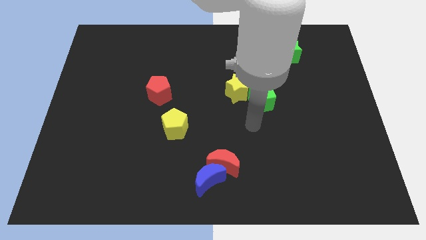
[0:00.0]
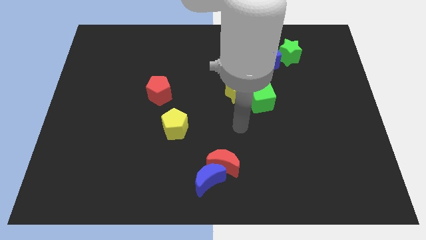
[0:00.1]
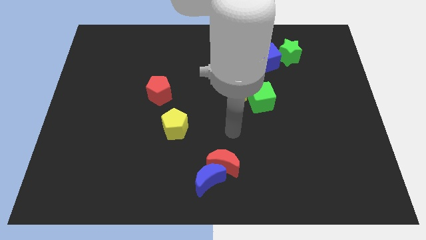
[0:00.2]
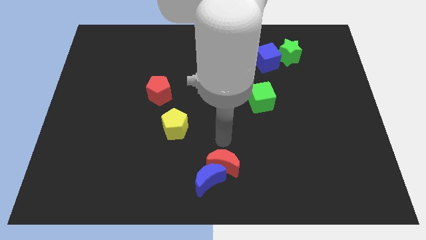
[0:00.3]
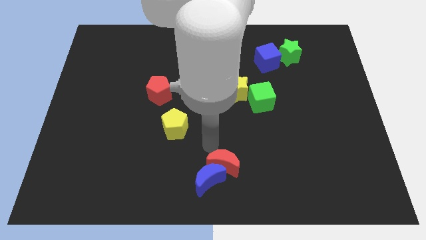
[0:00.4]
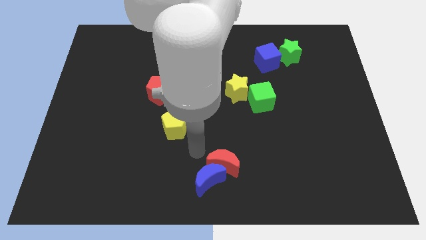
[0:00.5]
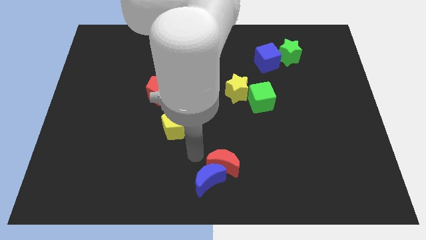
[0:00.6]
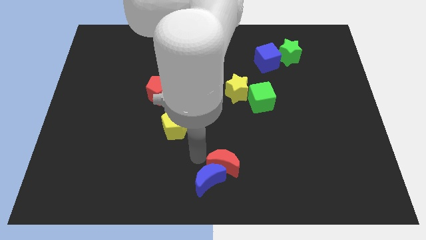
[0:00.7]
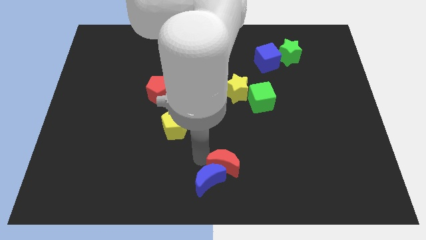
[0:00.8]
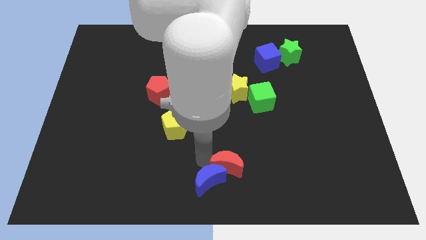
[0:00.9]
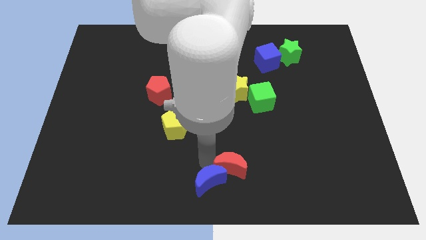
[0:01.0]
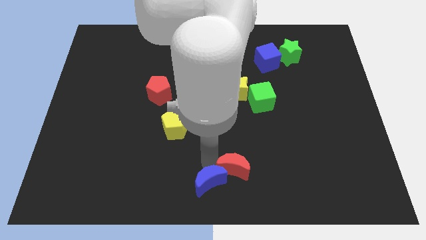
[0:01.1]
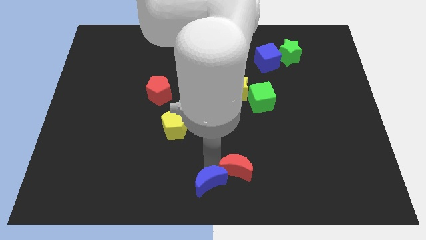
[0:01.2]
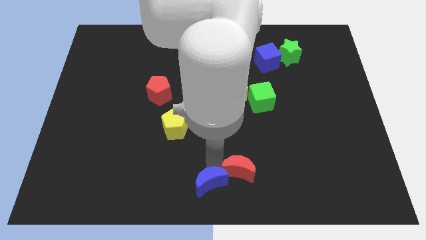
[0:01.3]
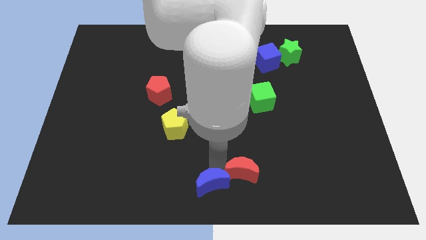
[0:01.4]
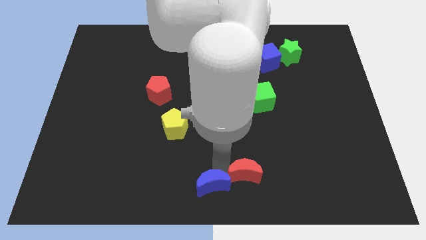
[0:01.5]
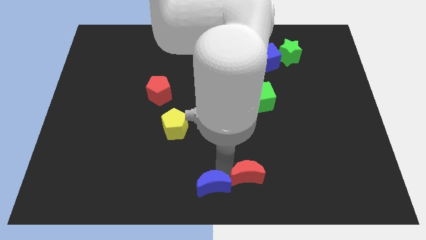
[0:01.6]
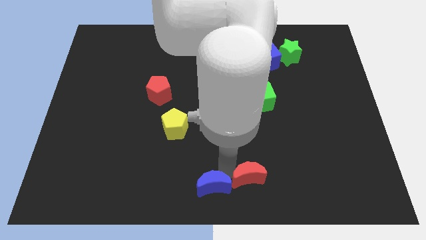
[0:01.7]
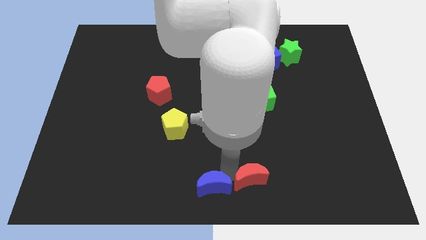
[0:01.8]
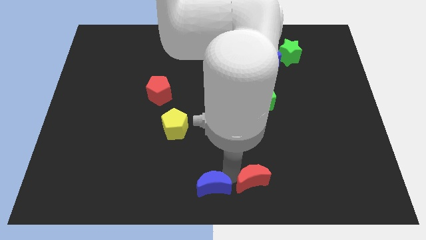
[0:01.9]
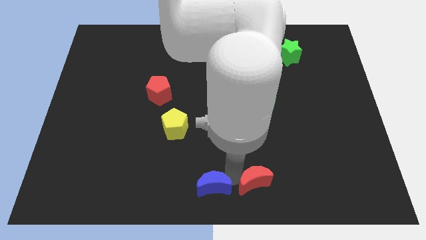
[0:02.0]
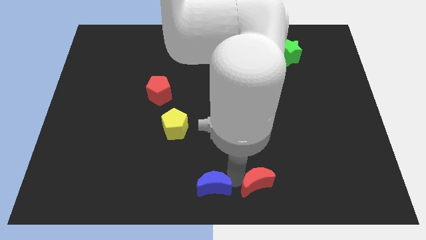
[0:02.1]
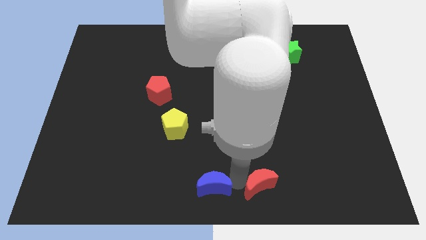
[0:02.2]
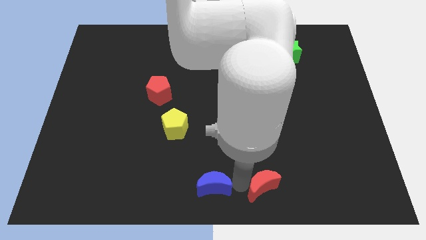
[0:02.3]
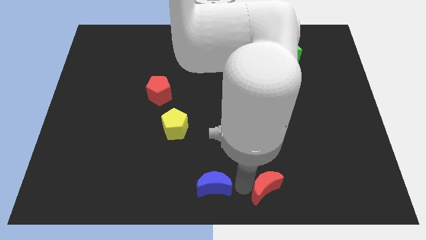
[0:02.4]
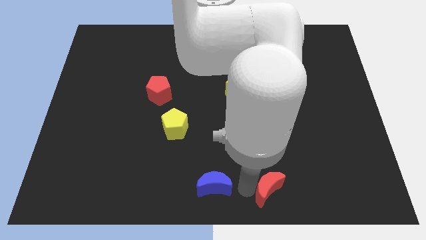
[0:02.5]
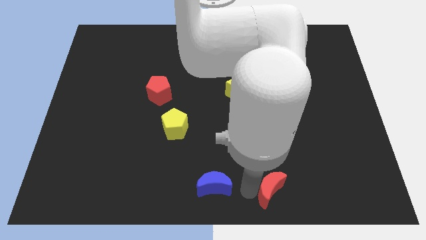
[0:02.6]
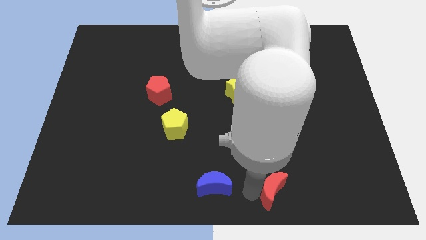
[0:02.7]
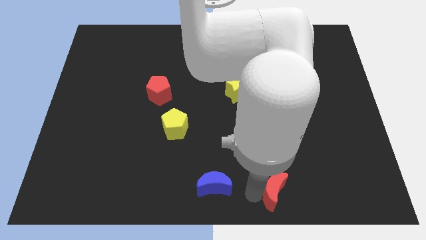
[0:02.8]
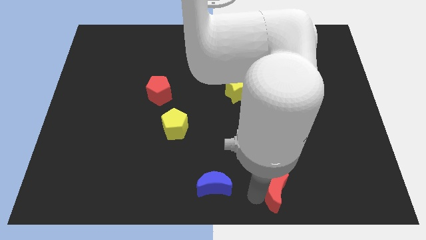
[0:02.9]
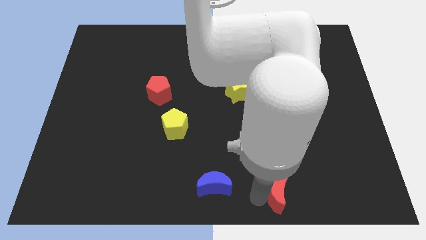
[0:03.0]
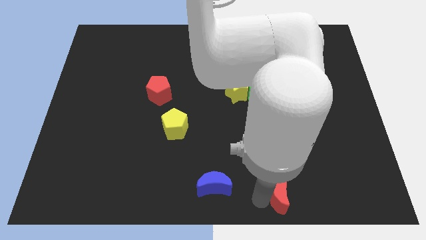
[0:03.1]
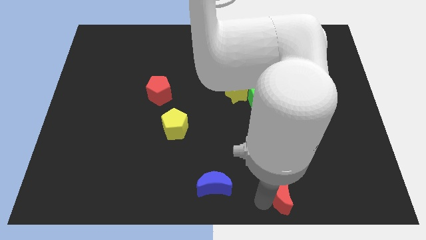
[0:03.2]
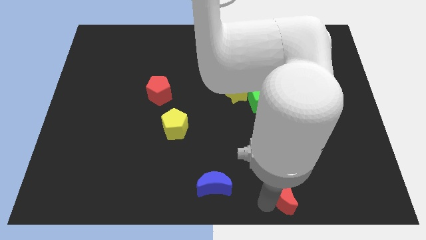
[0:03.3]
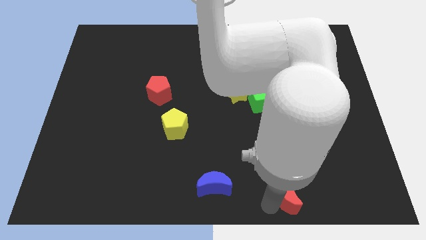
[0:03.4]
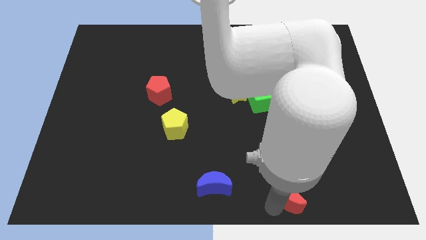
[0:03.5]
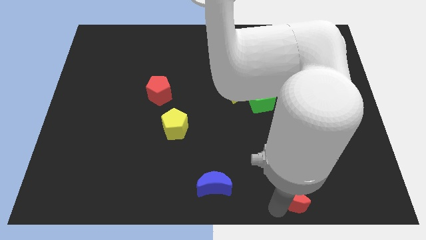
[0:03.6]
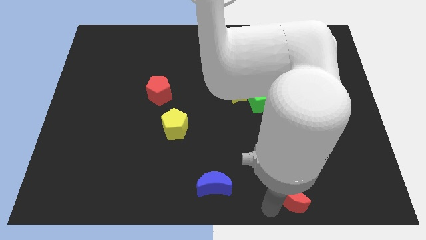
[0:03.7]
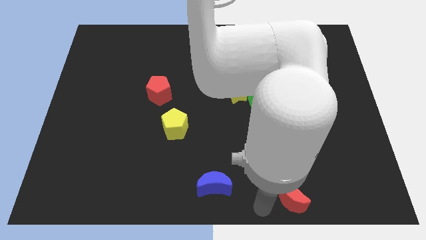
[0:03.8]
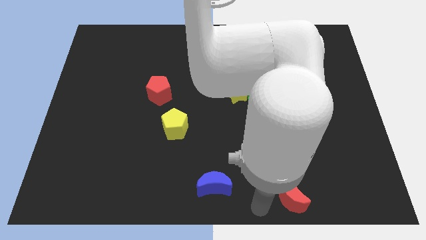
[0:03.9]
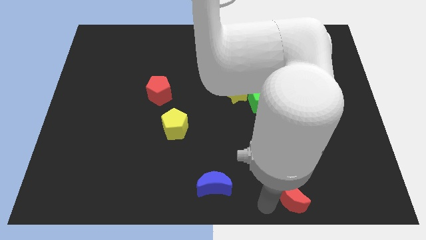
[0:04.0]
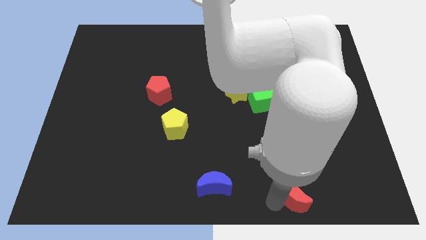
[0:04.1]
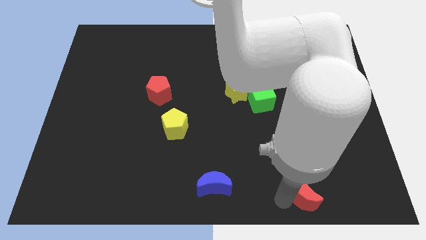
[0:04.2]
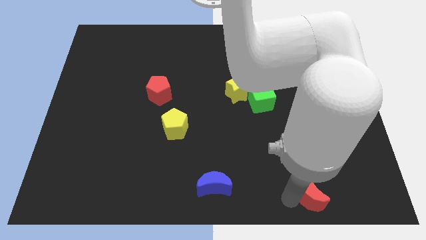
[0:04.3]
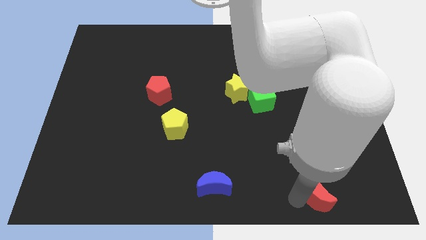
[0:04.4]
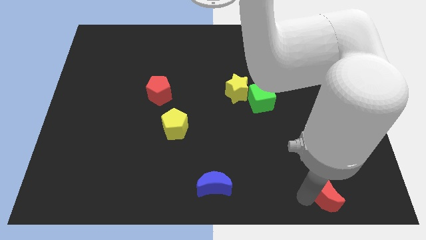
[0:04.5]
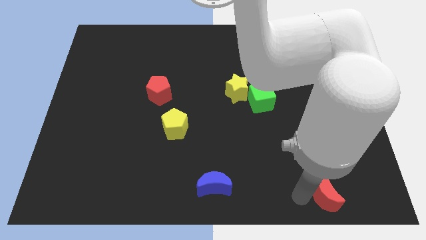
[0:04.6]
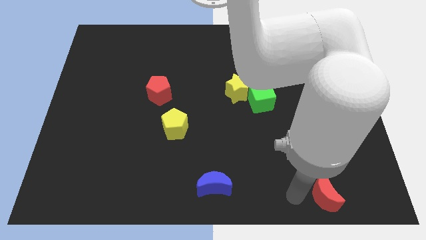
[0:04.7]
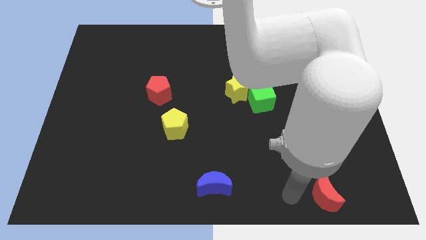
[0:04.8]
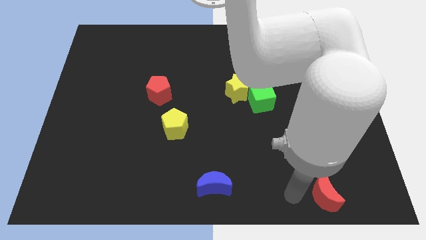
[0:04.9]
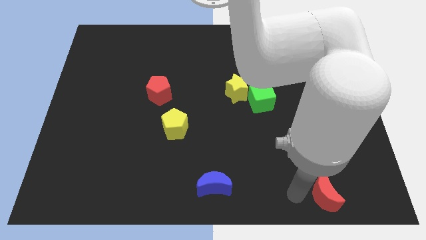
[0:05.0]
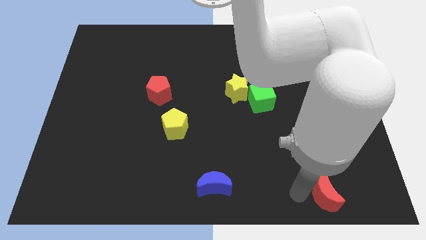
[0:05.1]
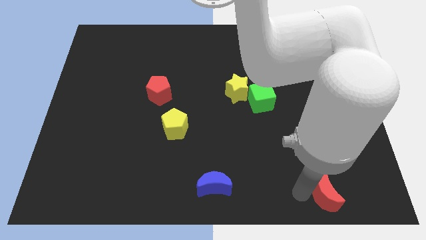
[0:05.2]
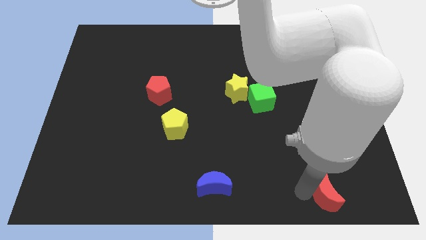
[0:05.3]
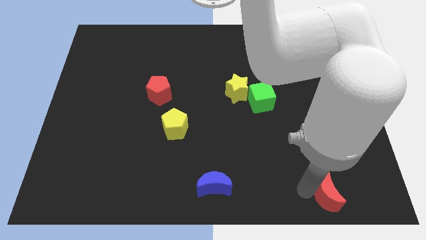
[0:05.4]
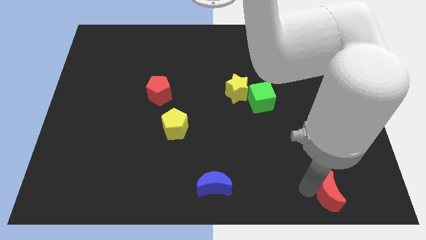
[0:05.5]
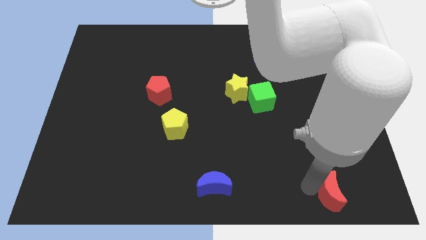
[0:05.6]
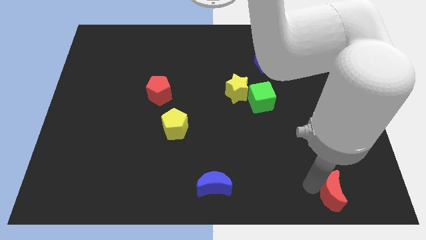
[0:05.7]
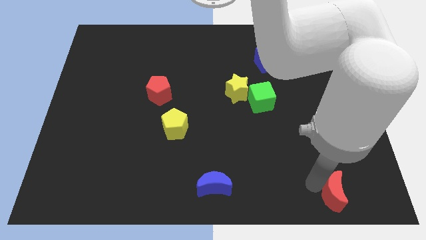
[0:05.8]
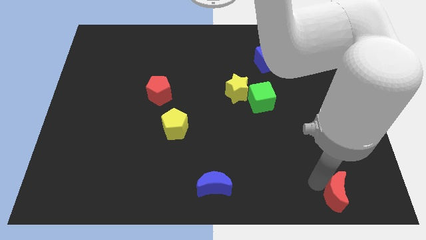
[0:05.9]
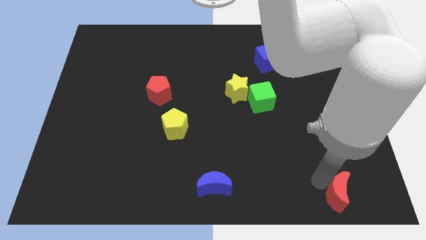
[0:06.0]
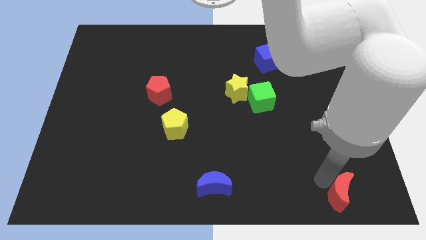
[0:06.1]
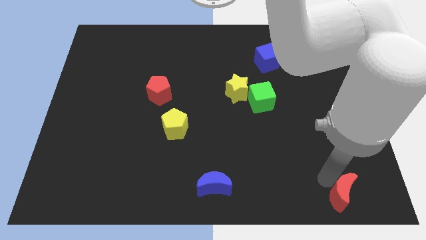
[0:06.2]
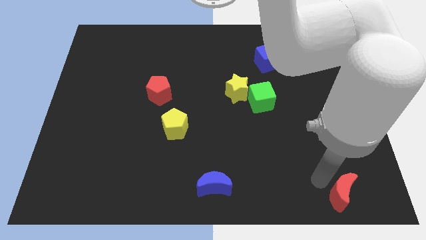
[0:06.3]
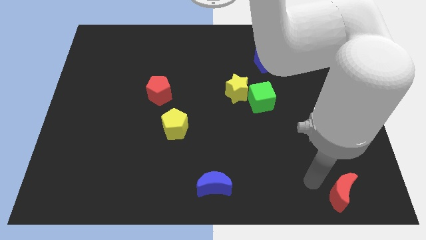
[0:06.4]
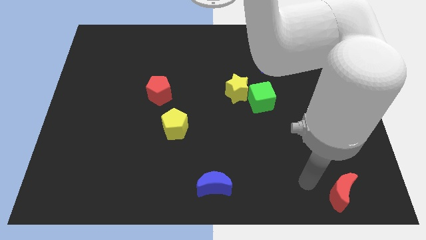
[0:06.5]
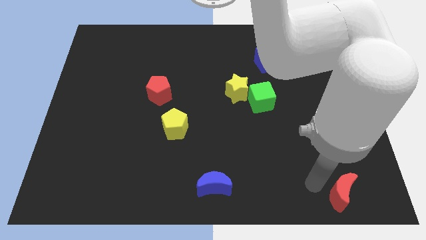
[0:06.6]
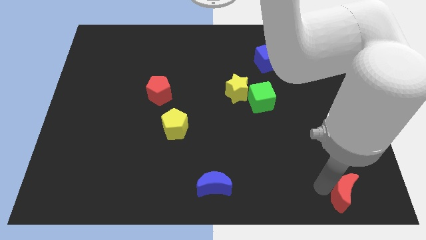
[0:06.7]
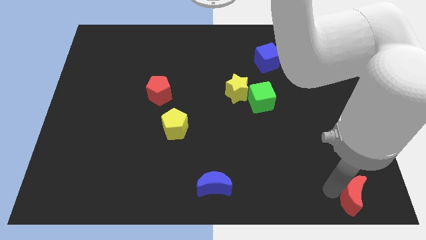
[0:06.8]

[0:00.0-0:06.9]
slide the red moon to the bottom right of the board

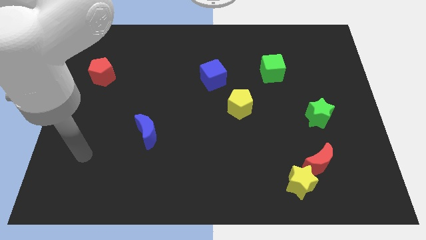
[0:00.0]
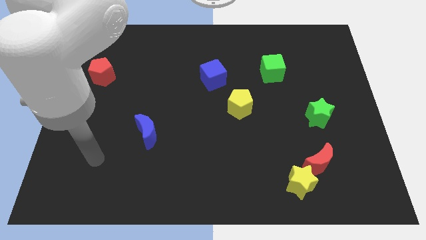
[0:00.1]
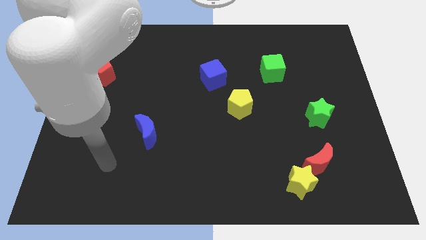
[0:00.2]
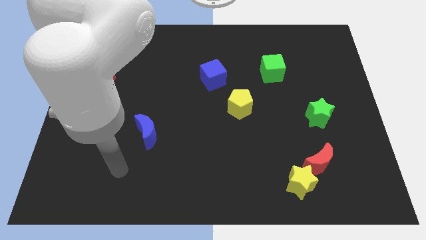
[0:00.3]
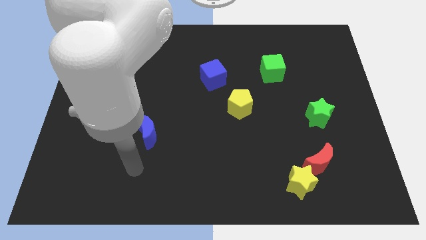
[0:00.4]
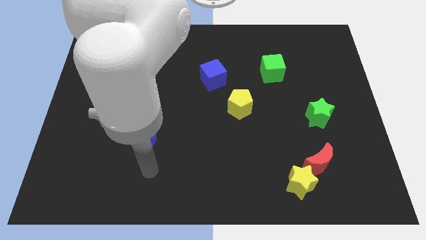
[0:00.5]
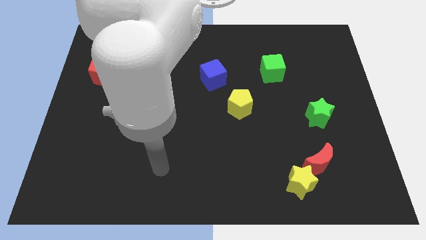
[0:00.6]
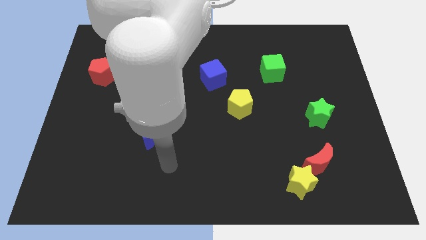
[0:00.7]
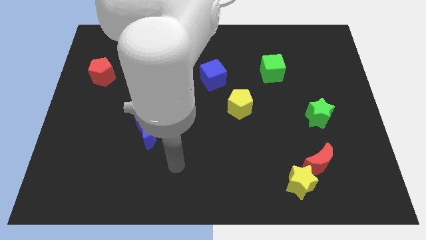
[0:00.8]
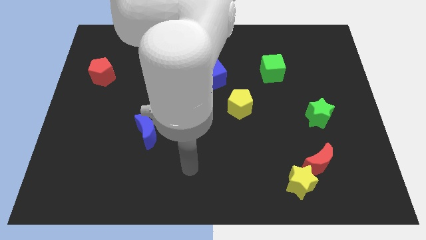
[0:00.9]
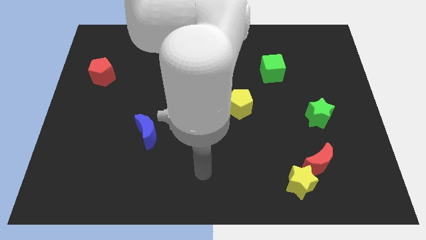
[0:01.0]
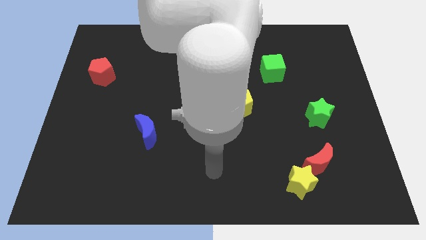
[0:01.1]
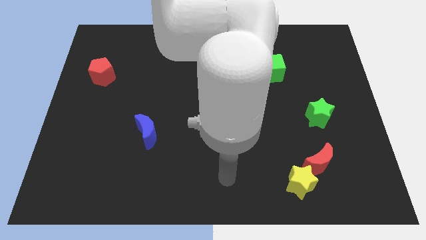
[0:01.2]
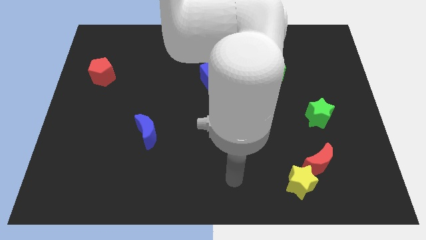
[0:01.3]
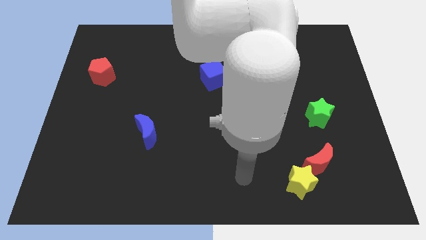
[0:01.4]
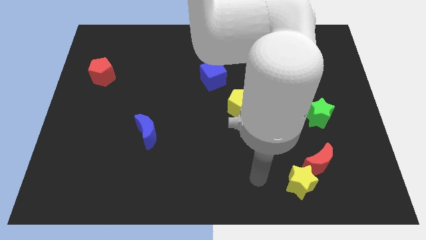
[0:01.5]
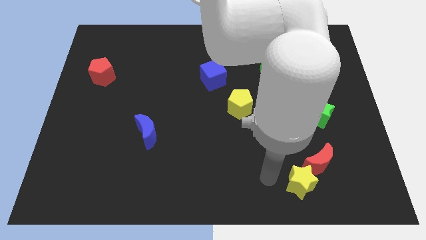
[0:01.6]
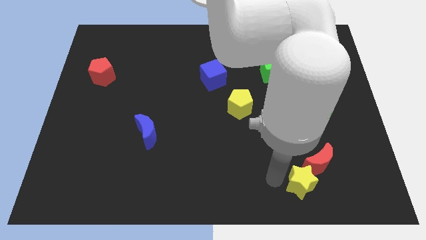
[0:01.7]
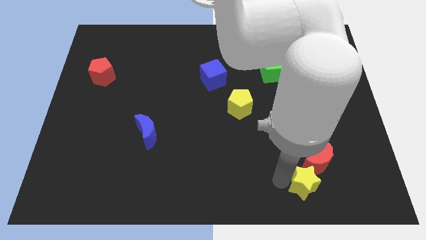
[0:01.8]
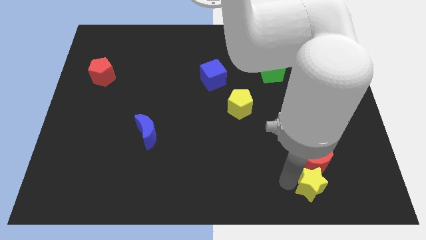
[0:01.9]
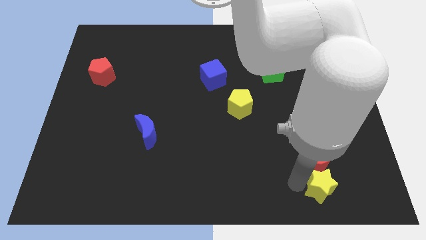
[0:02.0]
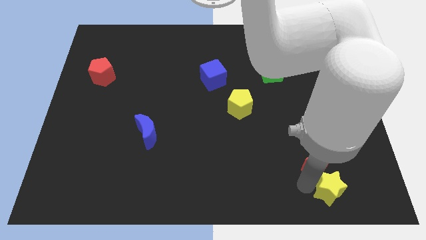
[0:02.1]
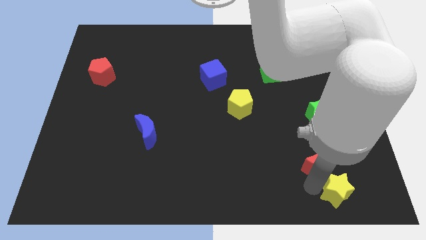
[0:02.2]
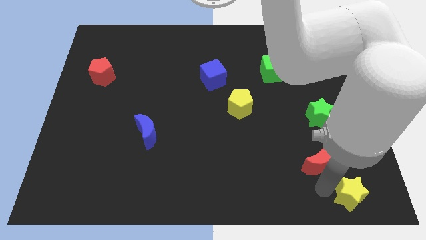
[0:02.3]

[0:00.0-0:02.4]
slide the yellow star to the bottom right corner
